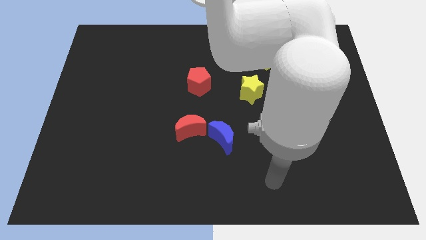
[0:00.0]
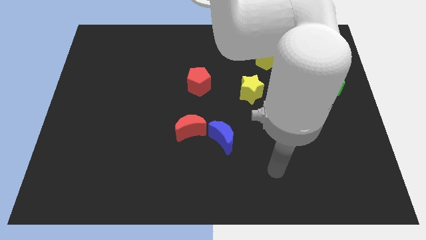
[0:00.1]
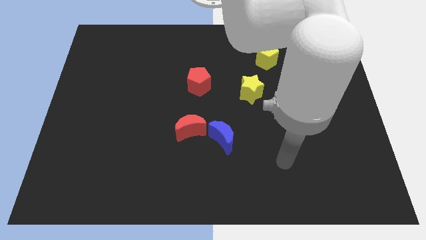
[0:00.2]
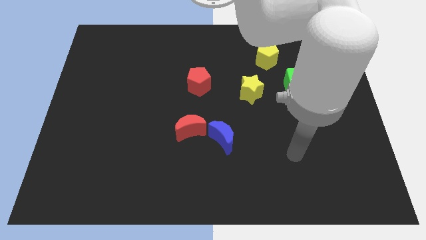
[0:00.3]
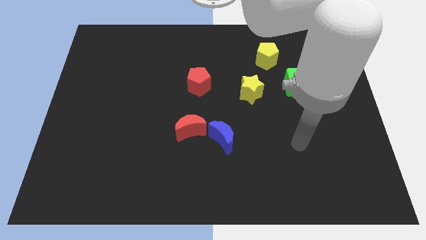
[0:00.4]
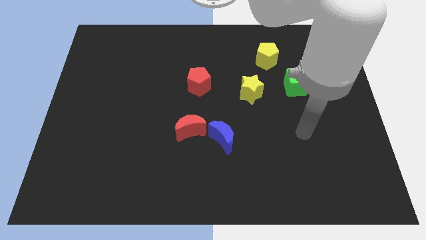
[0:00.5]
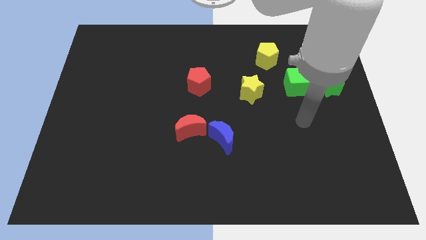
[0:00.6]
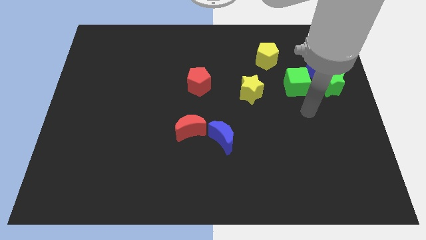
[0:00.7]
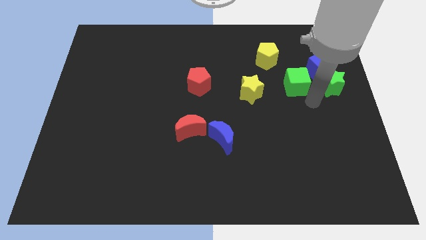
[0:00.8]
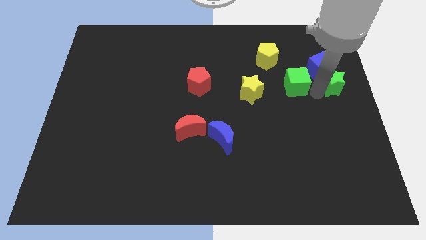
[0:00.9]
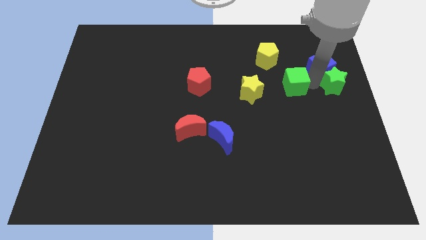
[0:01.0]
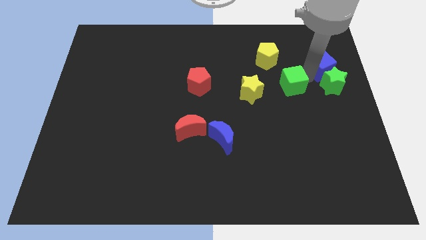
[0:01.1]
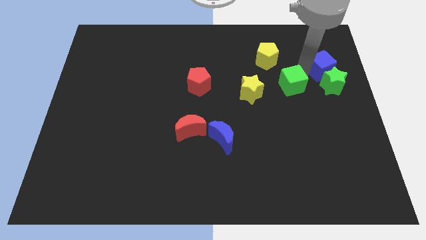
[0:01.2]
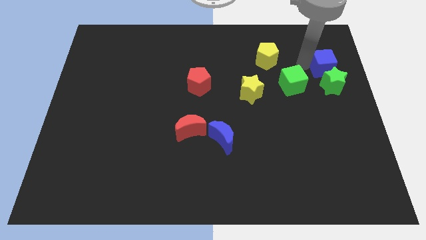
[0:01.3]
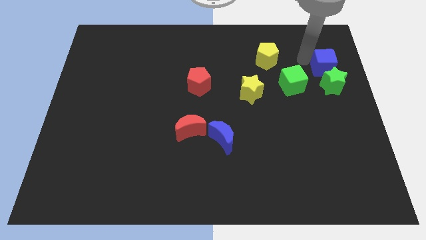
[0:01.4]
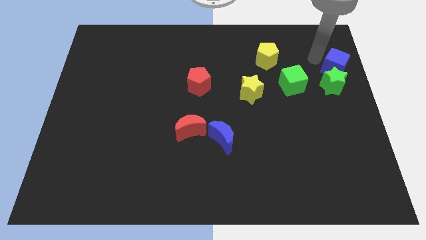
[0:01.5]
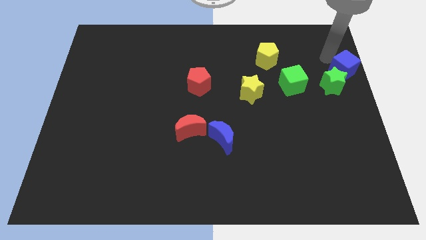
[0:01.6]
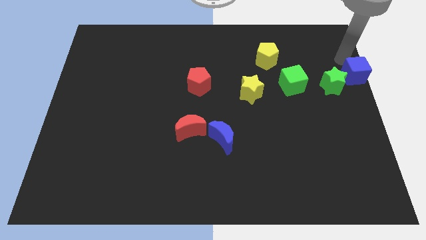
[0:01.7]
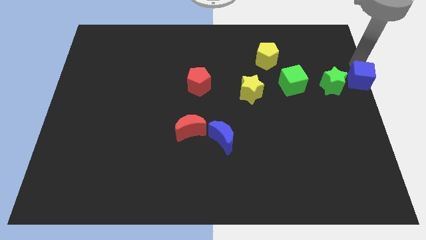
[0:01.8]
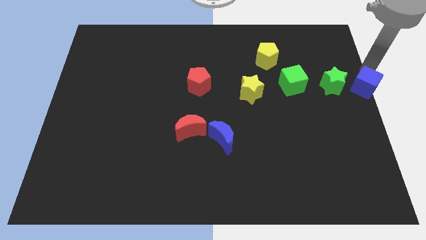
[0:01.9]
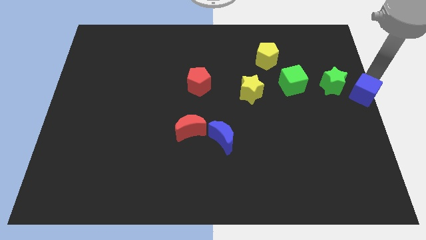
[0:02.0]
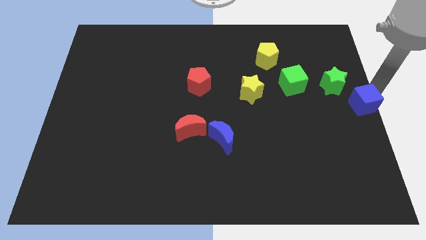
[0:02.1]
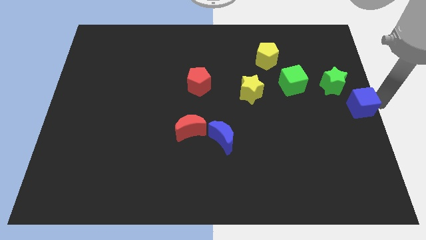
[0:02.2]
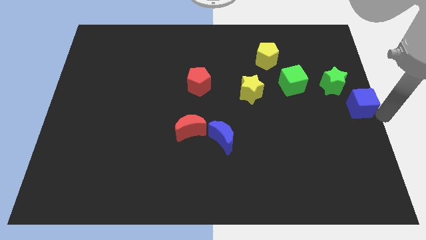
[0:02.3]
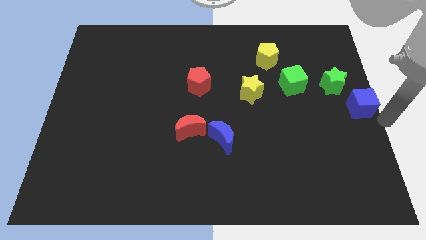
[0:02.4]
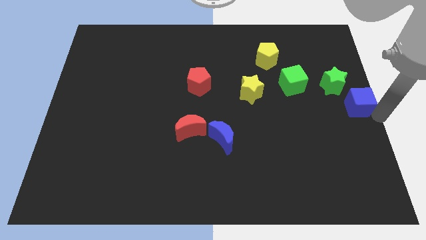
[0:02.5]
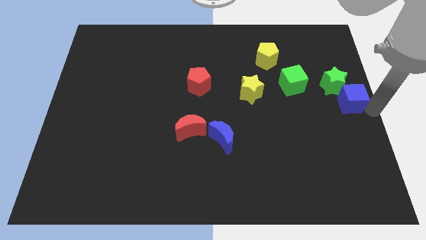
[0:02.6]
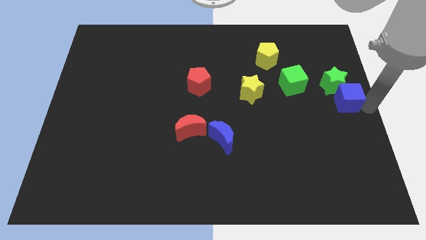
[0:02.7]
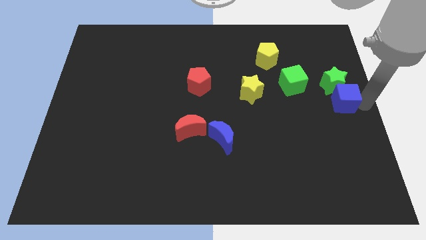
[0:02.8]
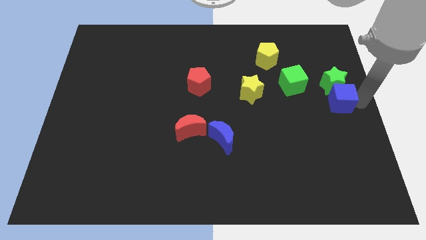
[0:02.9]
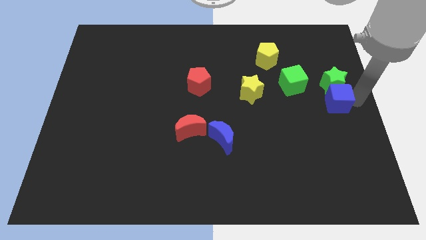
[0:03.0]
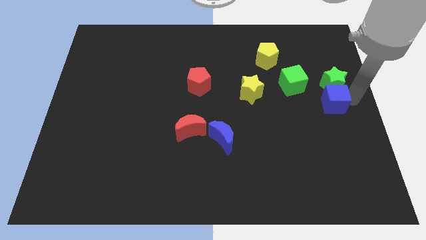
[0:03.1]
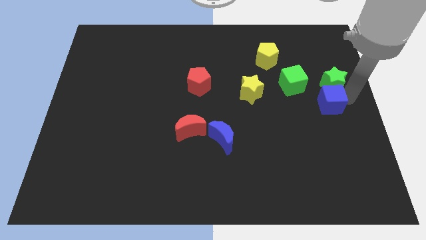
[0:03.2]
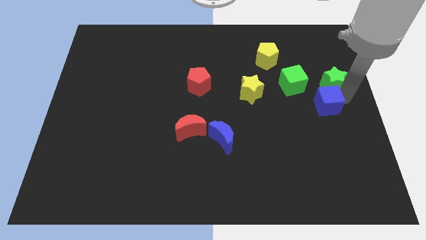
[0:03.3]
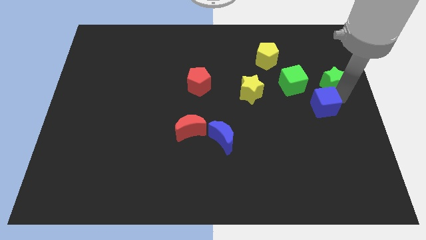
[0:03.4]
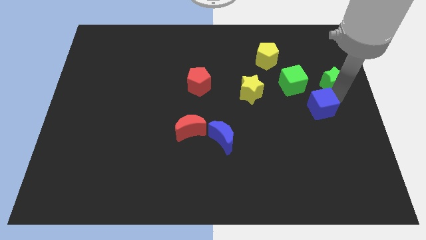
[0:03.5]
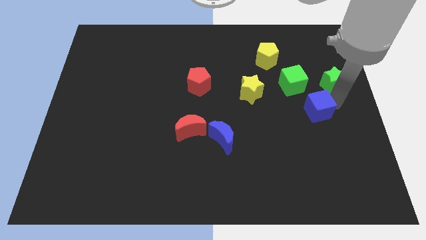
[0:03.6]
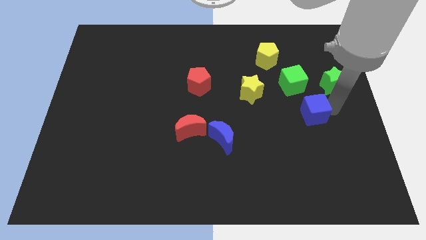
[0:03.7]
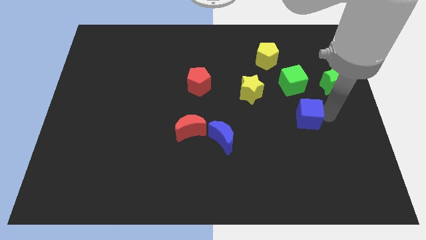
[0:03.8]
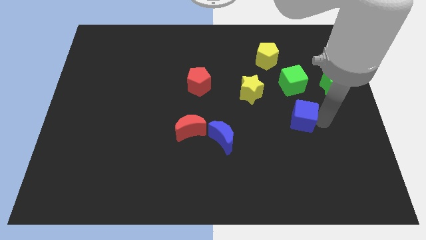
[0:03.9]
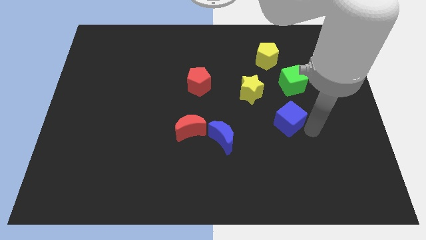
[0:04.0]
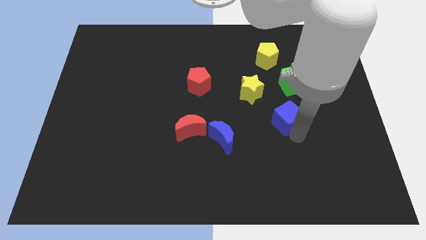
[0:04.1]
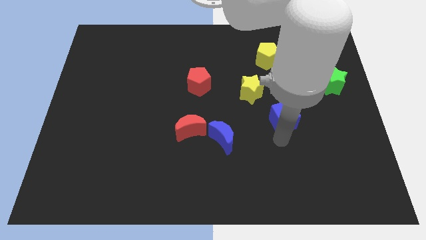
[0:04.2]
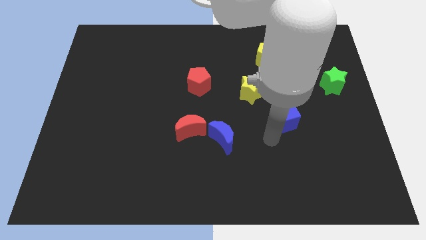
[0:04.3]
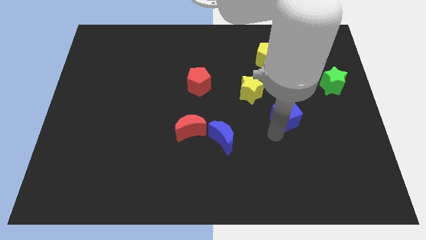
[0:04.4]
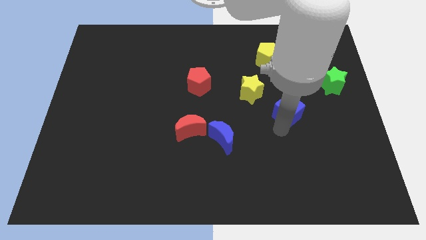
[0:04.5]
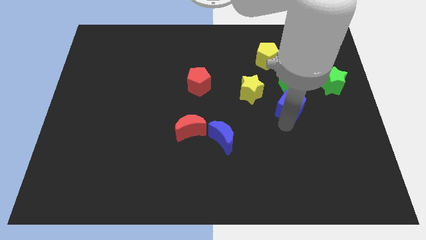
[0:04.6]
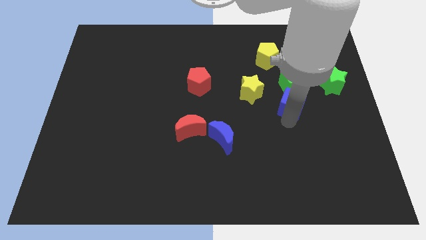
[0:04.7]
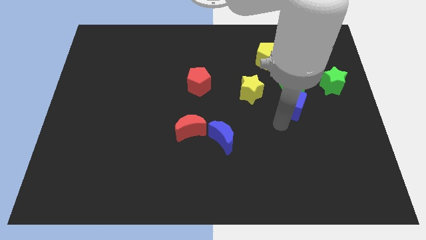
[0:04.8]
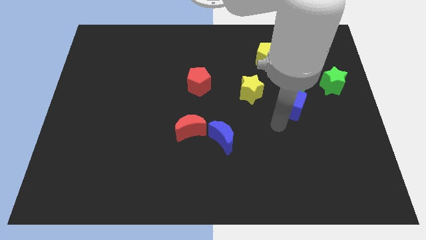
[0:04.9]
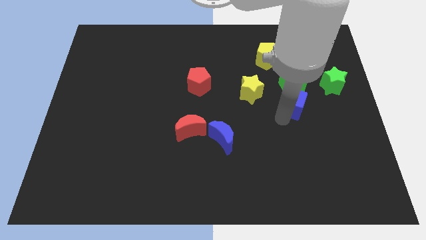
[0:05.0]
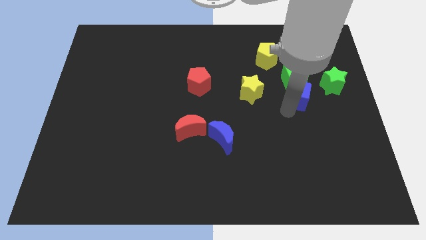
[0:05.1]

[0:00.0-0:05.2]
put the blue cube close to the green cube

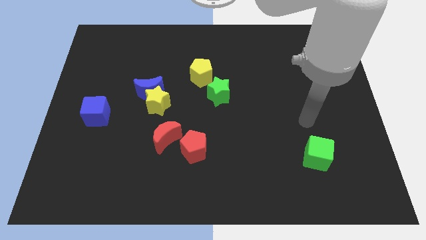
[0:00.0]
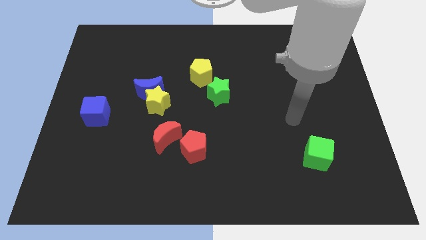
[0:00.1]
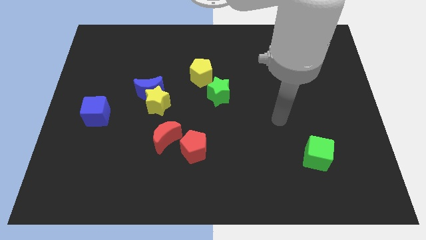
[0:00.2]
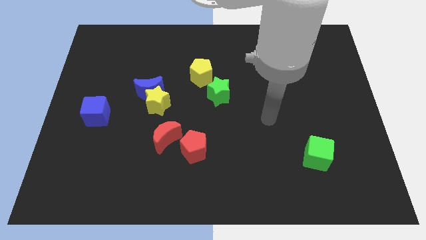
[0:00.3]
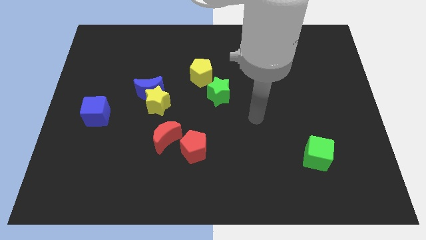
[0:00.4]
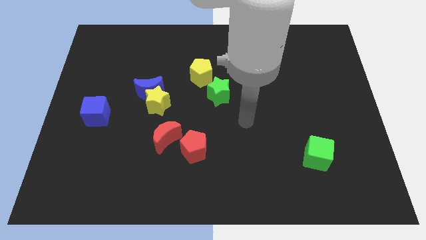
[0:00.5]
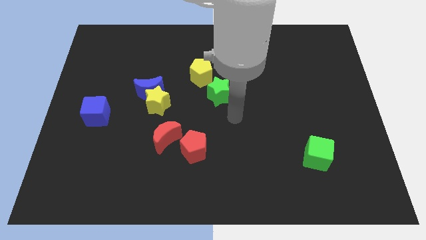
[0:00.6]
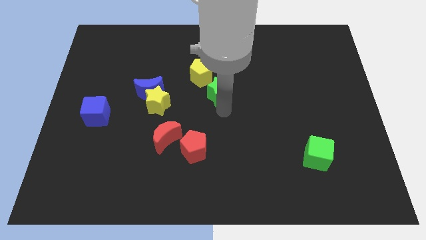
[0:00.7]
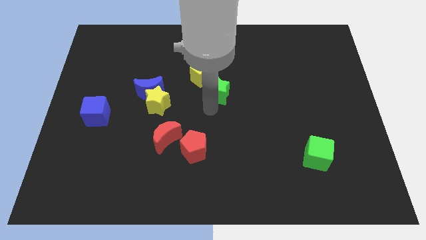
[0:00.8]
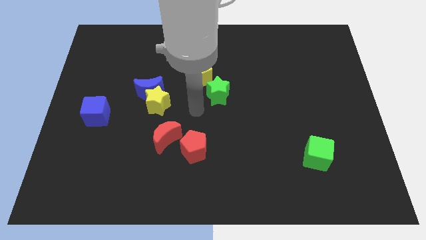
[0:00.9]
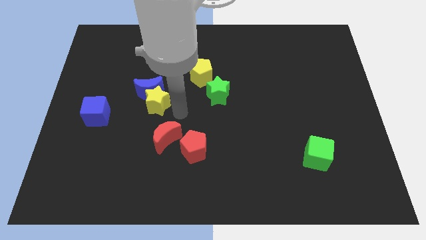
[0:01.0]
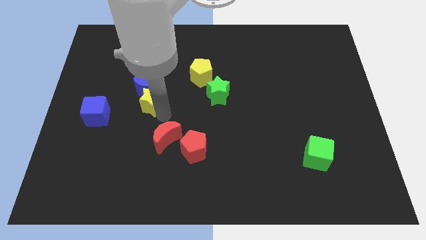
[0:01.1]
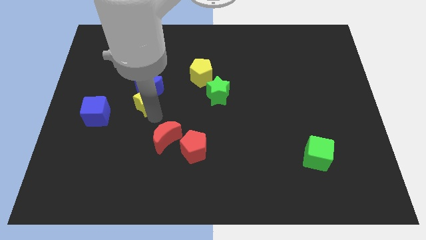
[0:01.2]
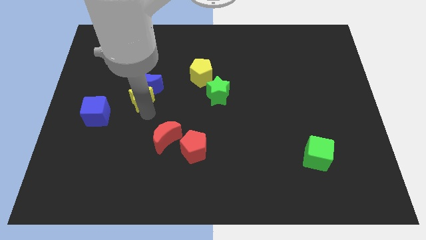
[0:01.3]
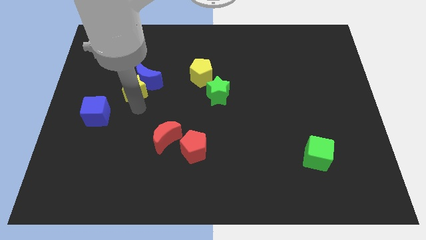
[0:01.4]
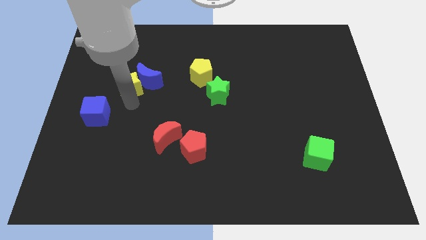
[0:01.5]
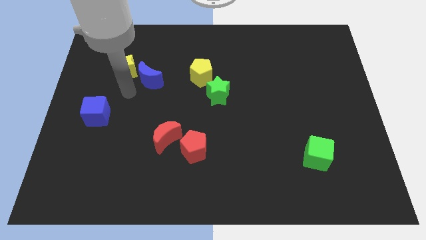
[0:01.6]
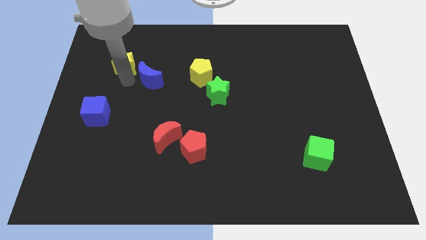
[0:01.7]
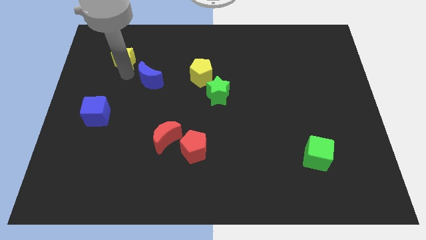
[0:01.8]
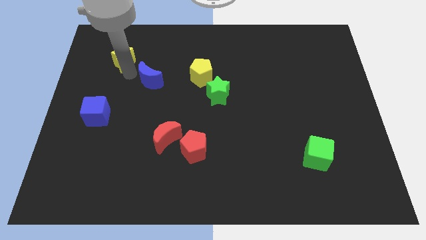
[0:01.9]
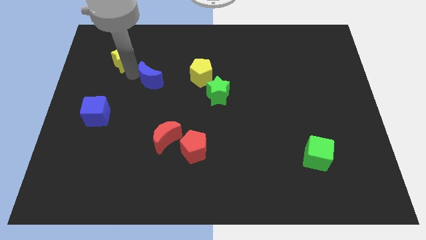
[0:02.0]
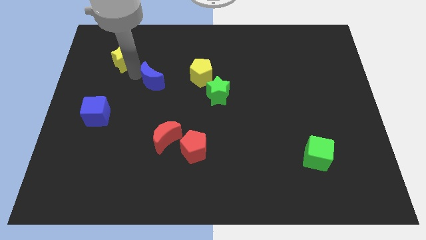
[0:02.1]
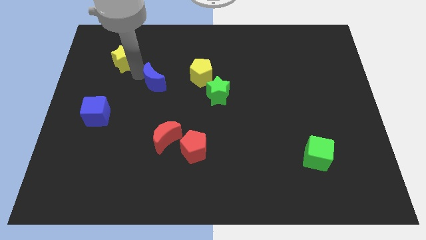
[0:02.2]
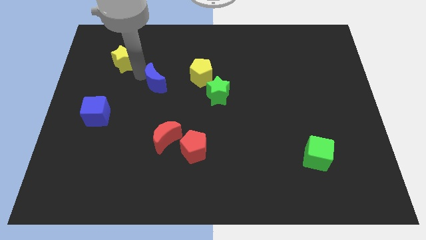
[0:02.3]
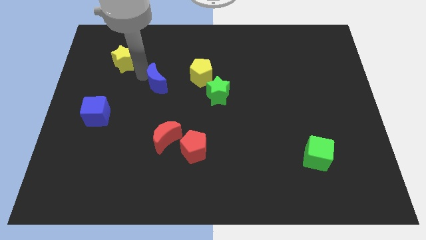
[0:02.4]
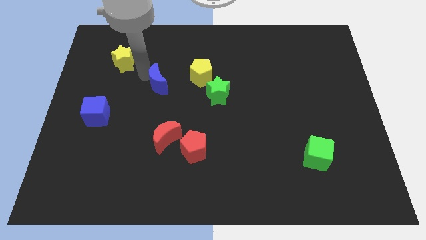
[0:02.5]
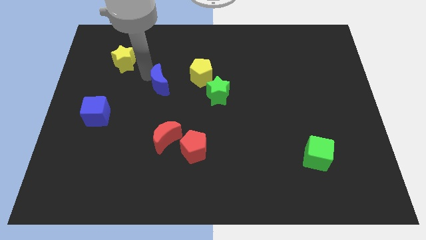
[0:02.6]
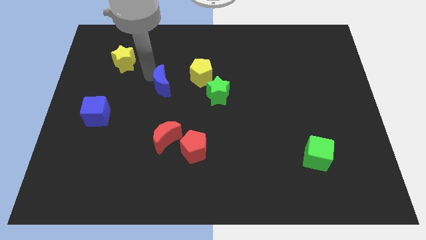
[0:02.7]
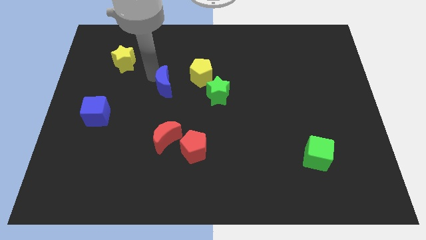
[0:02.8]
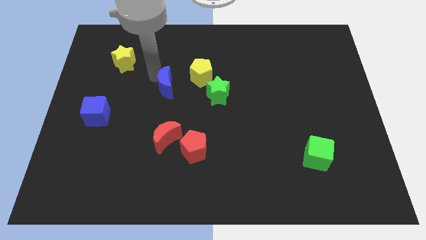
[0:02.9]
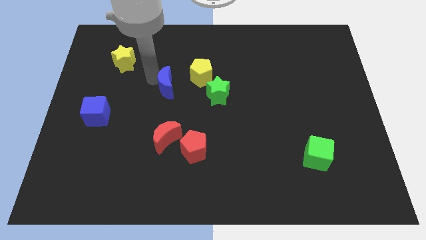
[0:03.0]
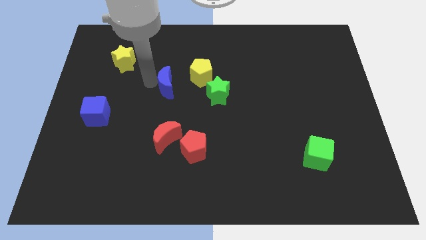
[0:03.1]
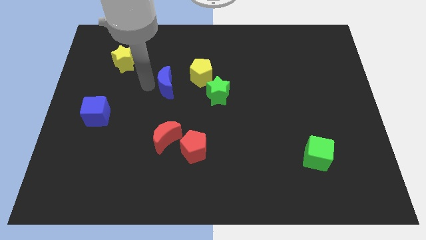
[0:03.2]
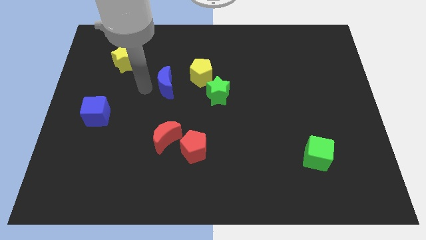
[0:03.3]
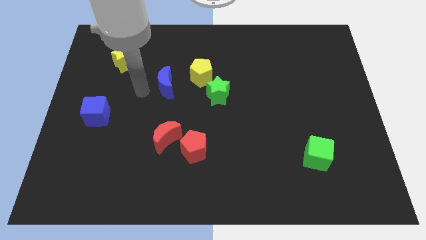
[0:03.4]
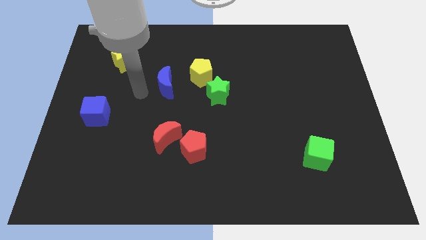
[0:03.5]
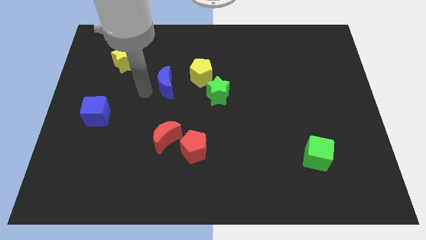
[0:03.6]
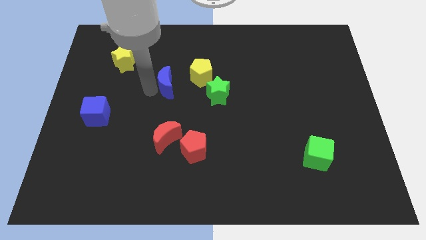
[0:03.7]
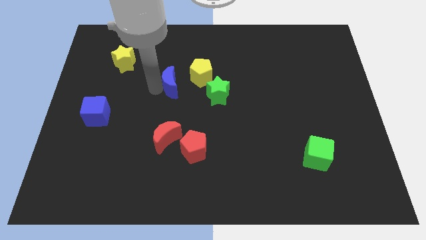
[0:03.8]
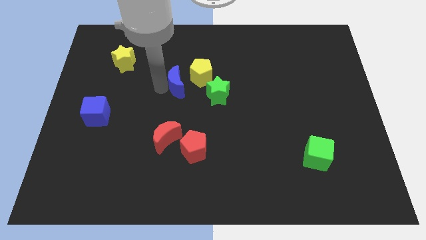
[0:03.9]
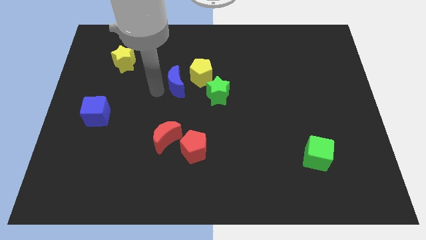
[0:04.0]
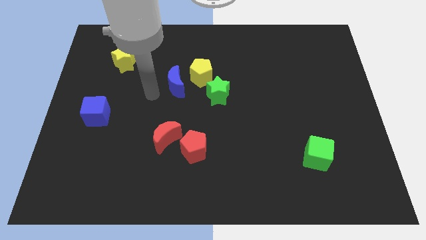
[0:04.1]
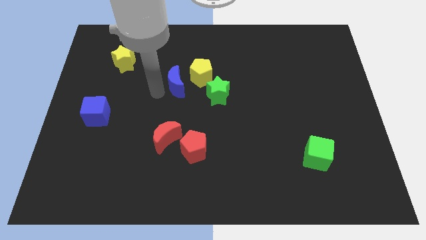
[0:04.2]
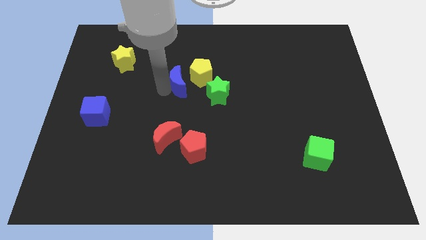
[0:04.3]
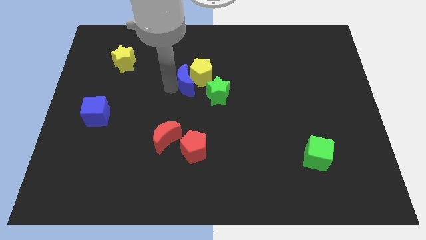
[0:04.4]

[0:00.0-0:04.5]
push the blue moon close to the yellow pentagon
